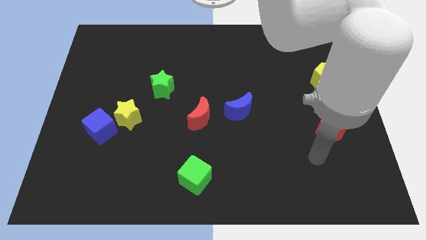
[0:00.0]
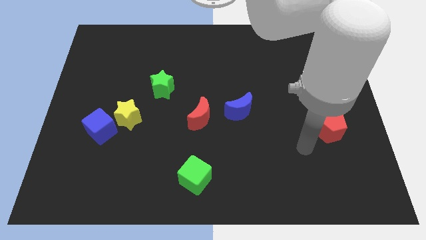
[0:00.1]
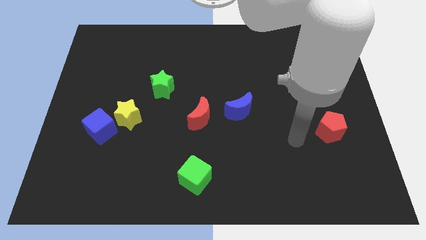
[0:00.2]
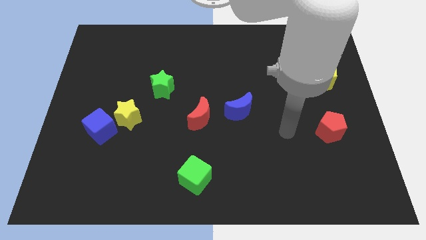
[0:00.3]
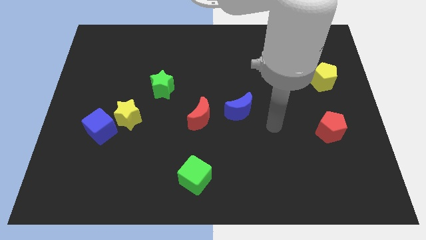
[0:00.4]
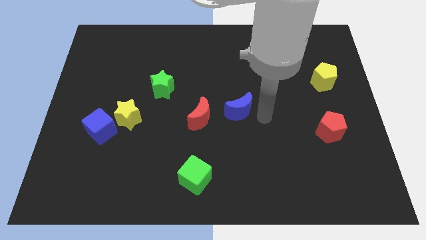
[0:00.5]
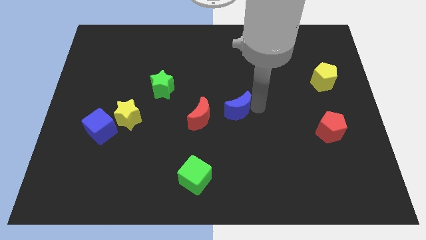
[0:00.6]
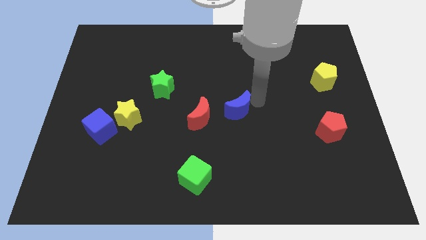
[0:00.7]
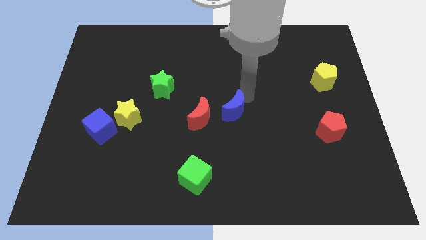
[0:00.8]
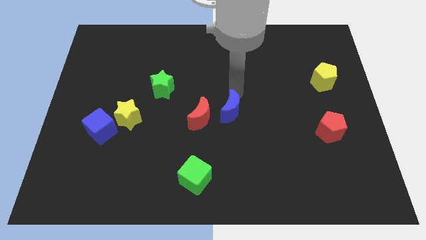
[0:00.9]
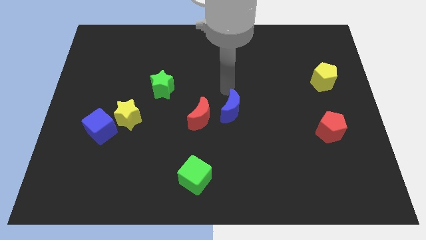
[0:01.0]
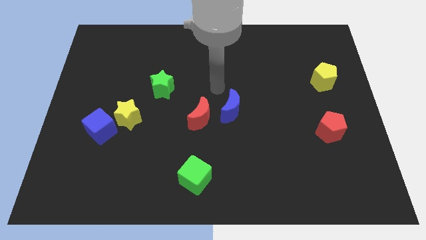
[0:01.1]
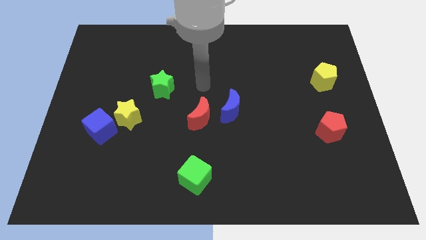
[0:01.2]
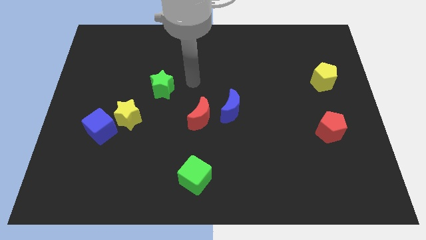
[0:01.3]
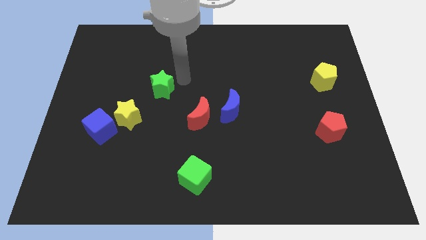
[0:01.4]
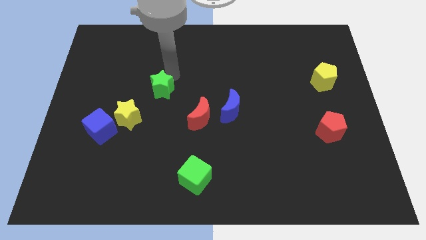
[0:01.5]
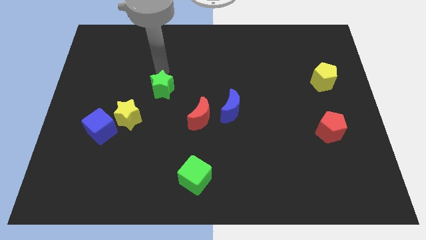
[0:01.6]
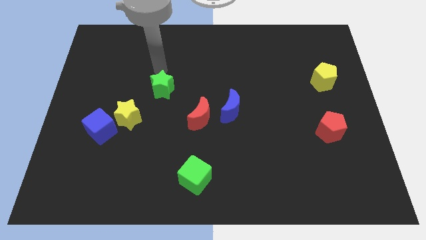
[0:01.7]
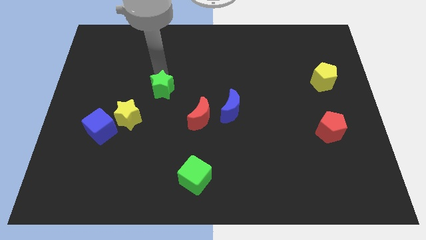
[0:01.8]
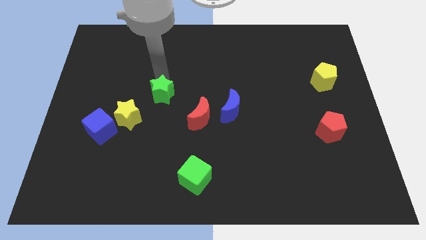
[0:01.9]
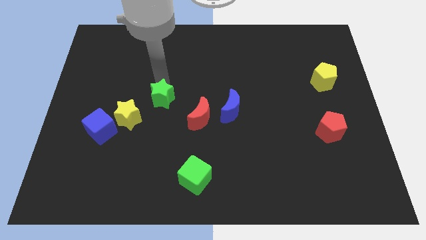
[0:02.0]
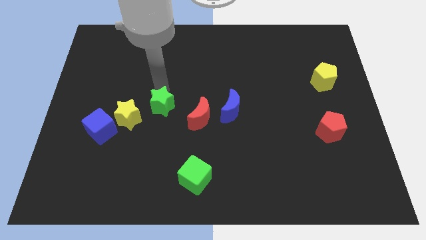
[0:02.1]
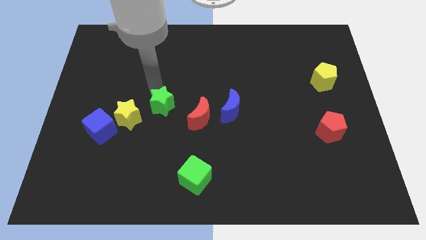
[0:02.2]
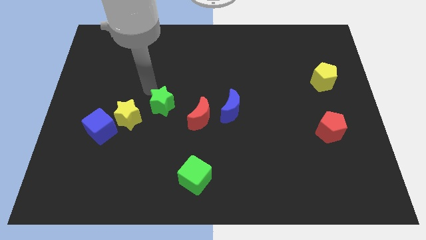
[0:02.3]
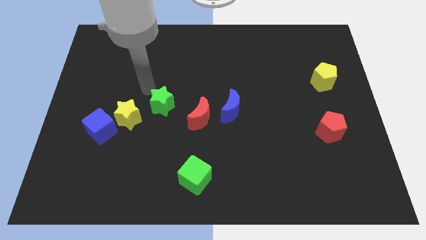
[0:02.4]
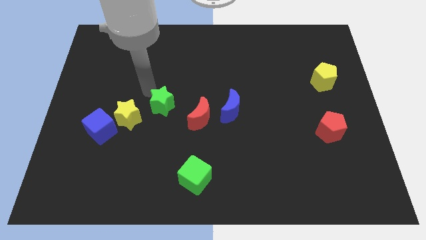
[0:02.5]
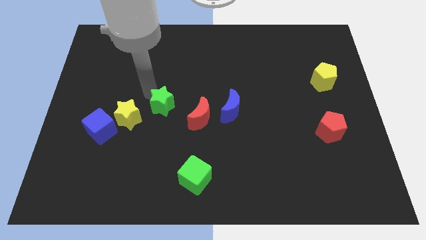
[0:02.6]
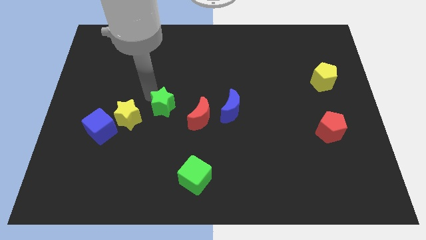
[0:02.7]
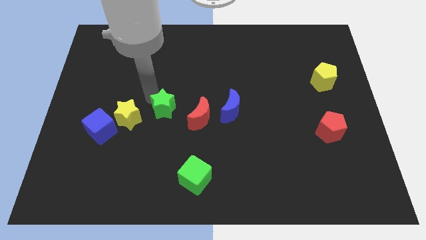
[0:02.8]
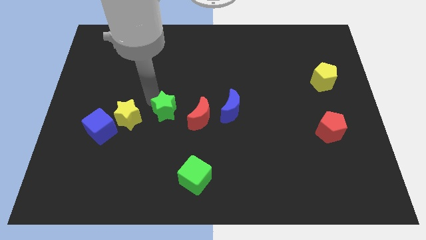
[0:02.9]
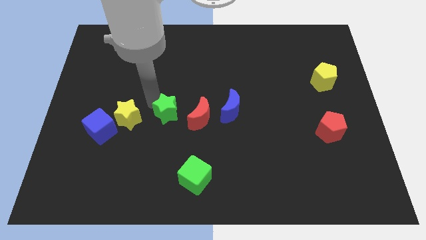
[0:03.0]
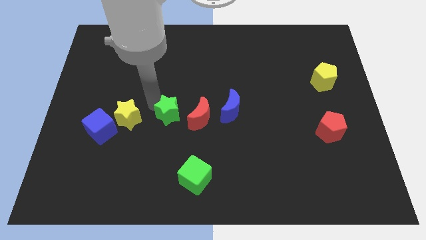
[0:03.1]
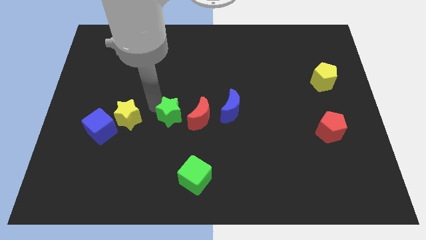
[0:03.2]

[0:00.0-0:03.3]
slightly push the green star down and right diagonally

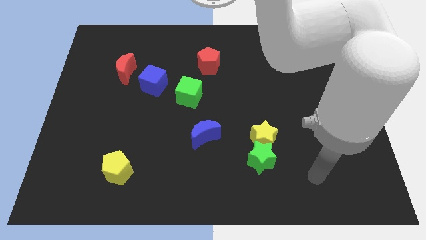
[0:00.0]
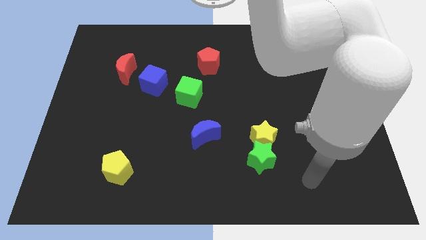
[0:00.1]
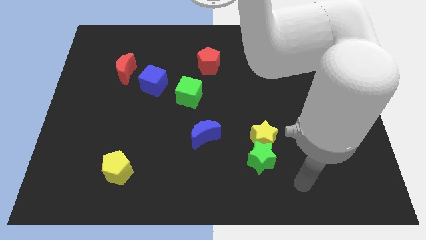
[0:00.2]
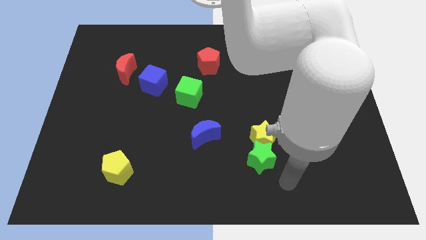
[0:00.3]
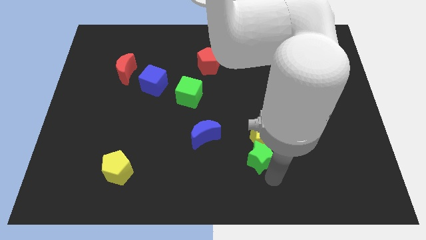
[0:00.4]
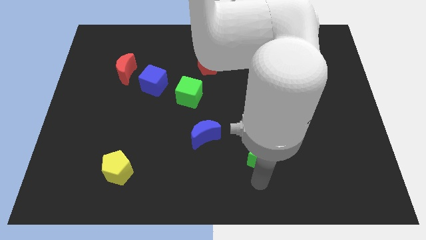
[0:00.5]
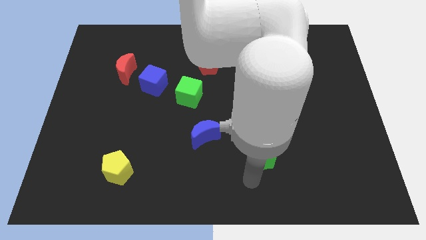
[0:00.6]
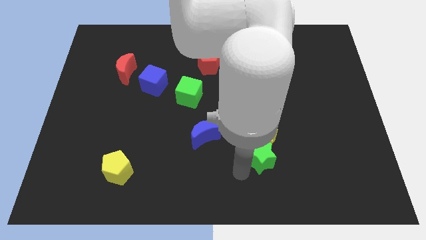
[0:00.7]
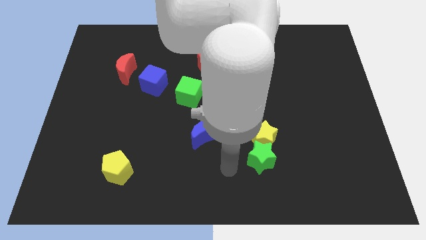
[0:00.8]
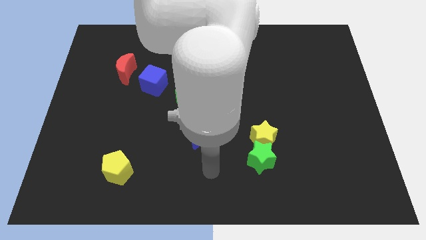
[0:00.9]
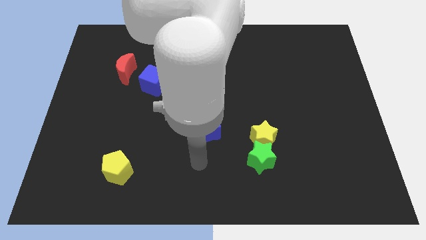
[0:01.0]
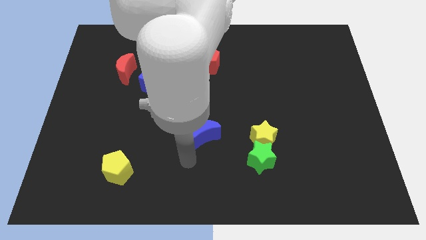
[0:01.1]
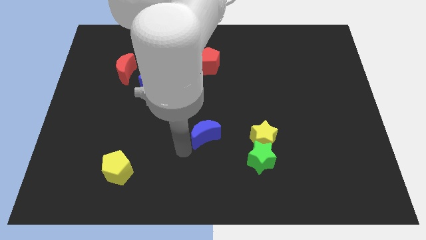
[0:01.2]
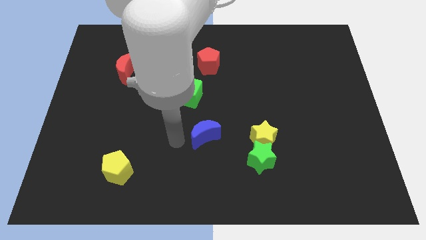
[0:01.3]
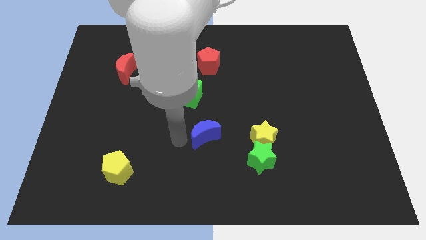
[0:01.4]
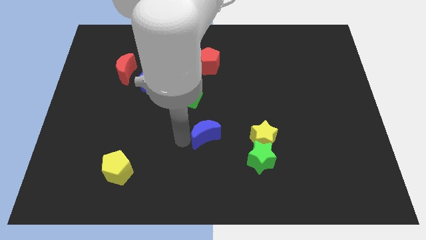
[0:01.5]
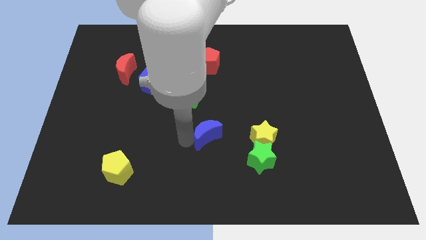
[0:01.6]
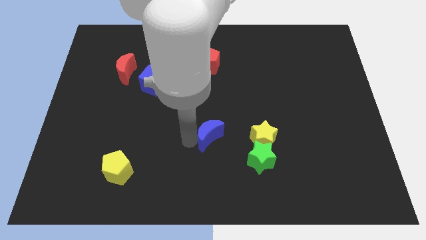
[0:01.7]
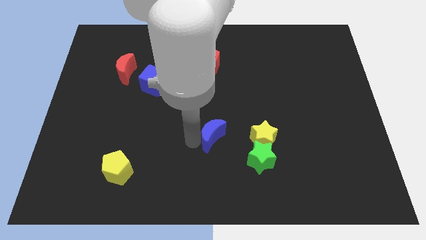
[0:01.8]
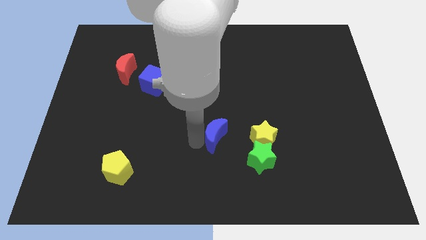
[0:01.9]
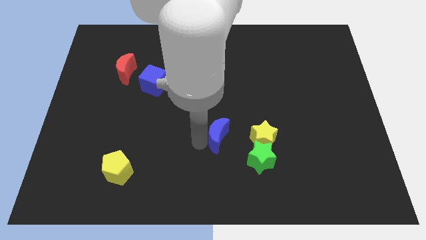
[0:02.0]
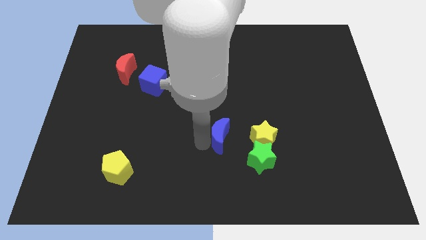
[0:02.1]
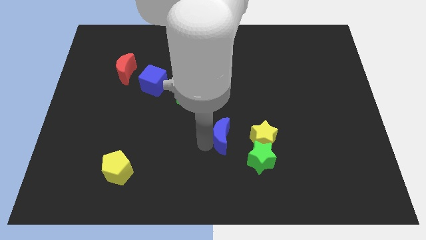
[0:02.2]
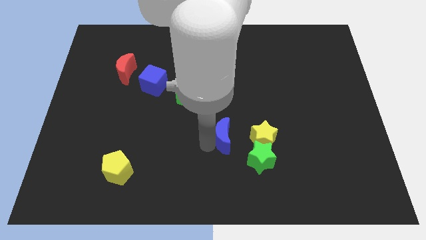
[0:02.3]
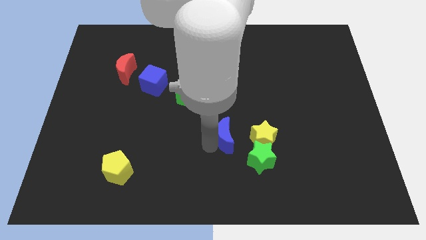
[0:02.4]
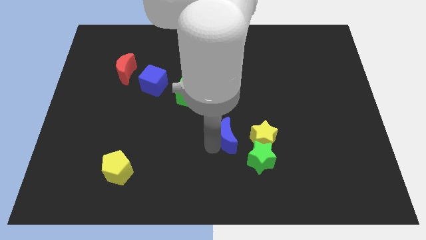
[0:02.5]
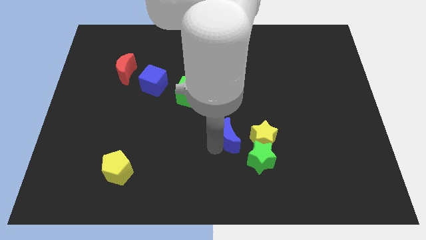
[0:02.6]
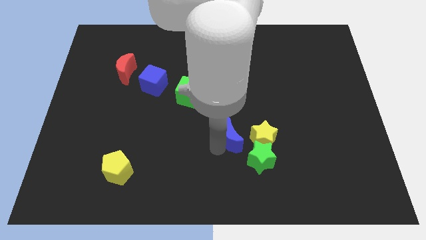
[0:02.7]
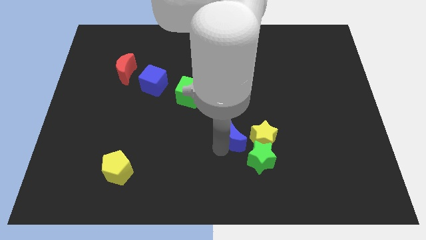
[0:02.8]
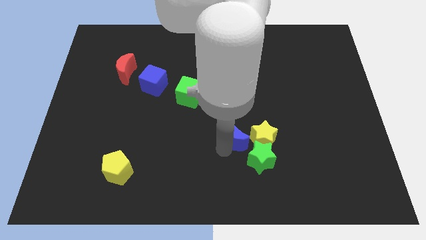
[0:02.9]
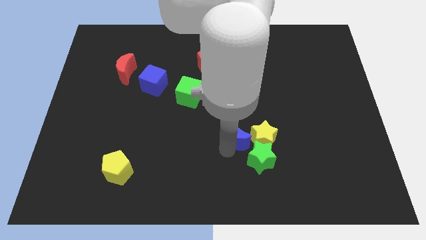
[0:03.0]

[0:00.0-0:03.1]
slide the blue moon right a little bit

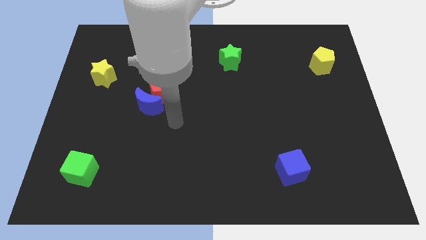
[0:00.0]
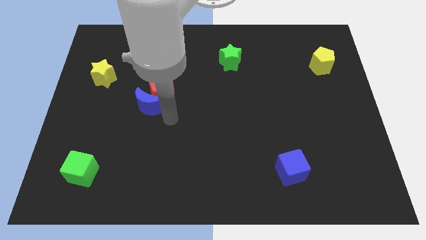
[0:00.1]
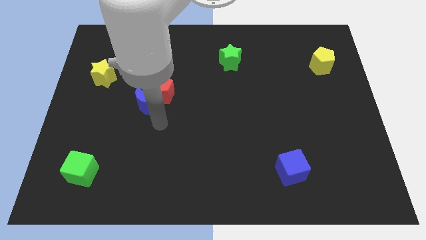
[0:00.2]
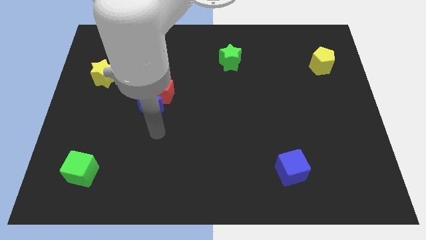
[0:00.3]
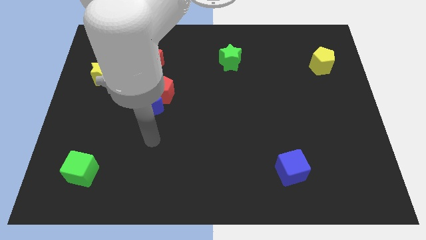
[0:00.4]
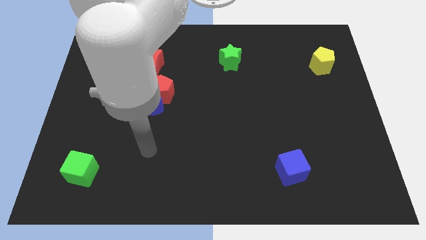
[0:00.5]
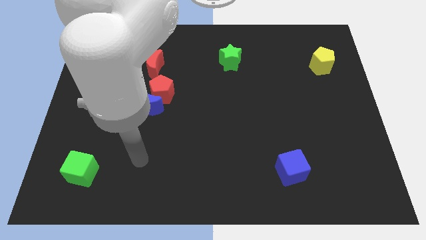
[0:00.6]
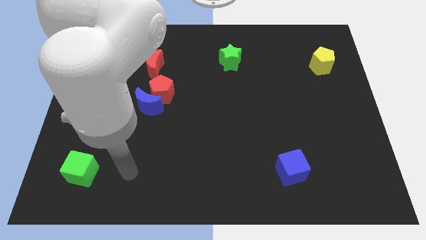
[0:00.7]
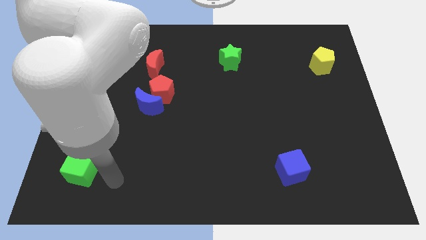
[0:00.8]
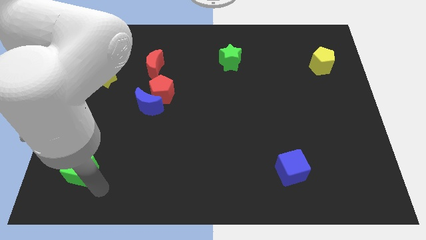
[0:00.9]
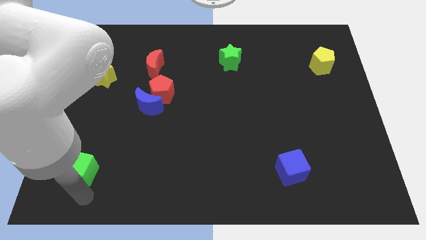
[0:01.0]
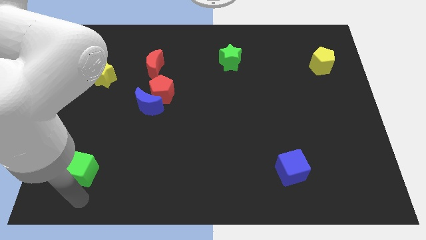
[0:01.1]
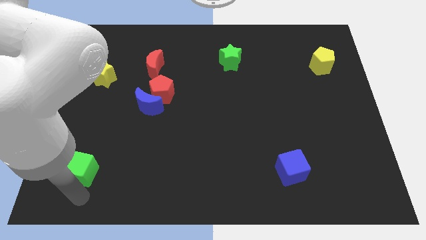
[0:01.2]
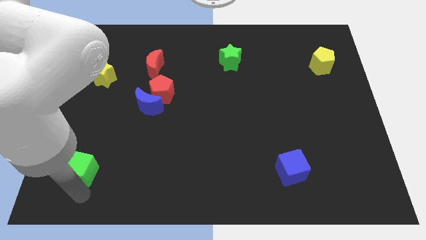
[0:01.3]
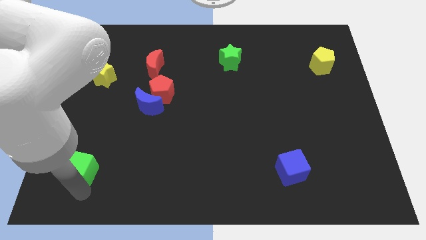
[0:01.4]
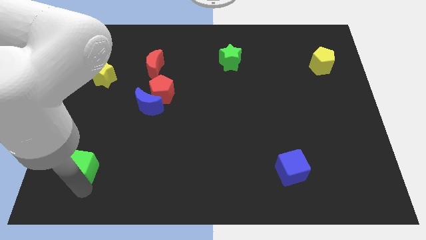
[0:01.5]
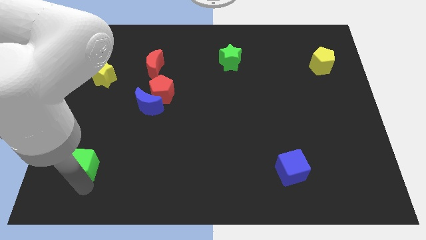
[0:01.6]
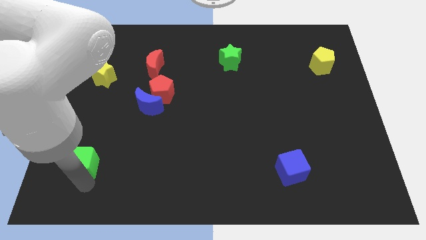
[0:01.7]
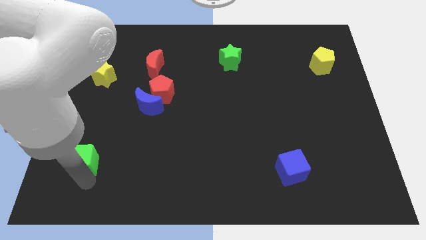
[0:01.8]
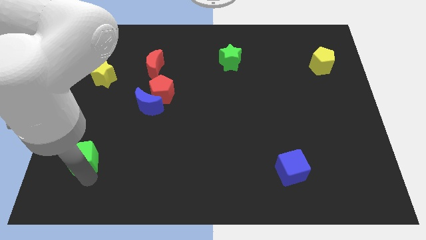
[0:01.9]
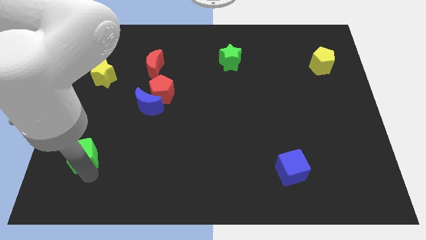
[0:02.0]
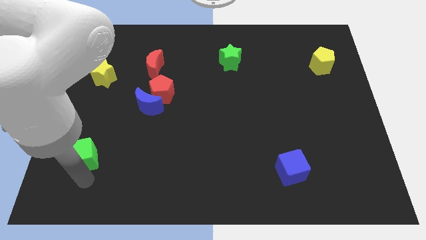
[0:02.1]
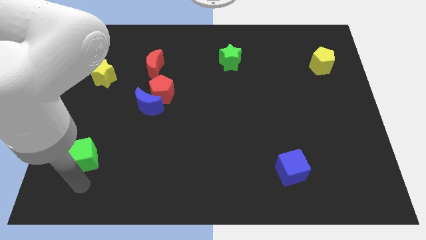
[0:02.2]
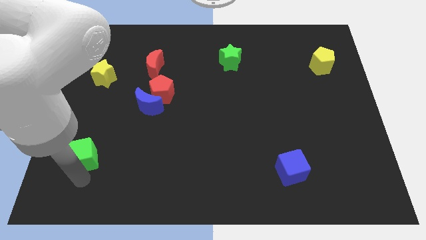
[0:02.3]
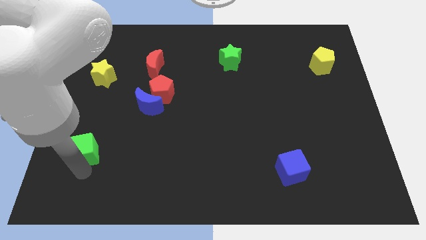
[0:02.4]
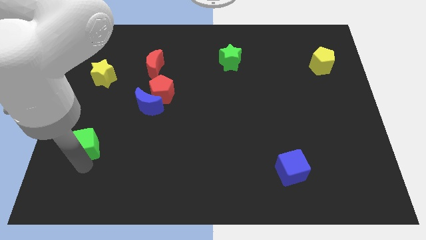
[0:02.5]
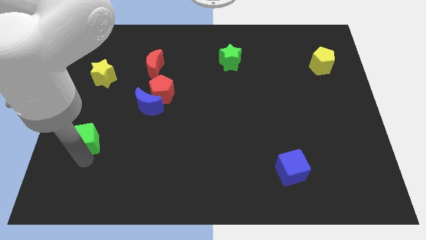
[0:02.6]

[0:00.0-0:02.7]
slide the green cube slightly upwards
